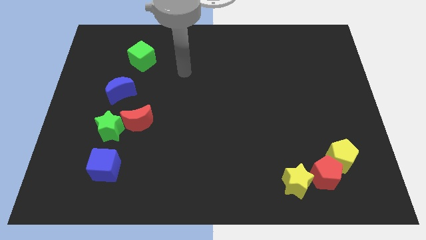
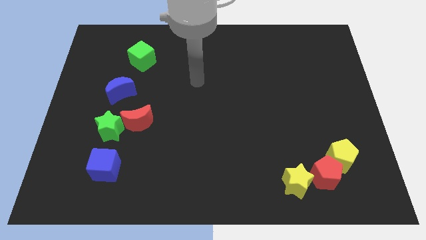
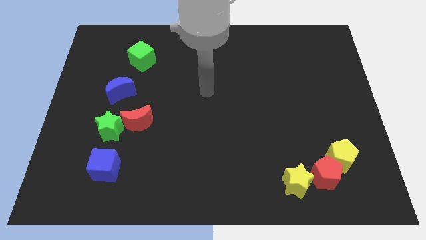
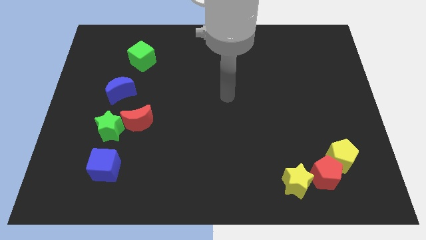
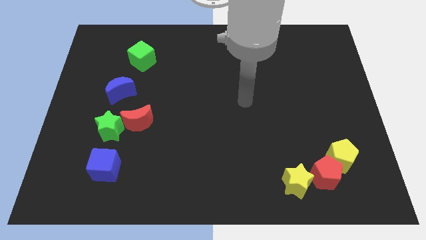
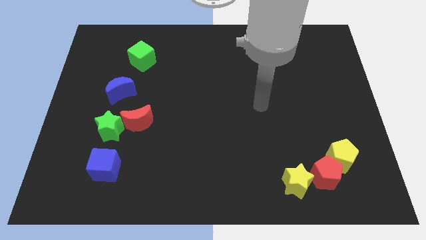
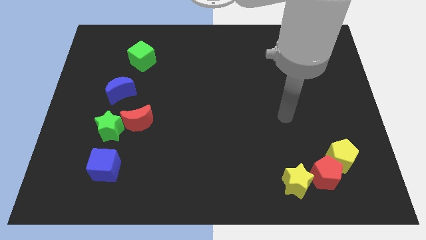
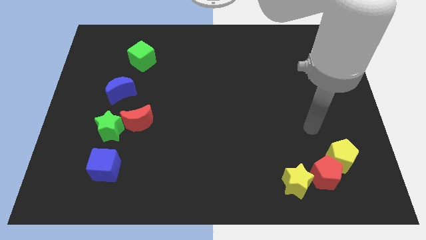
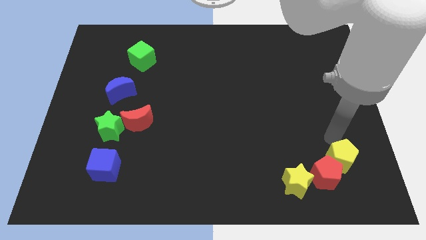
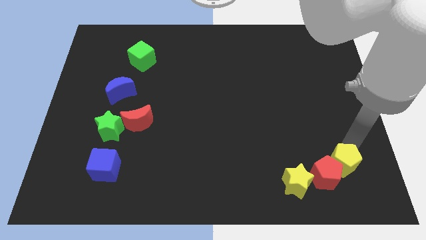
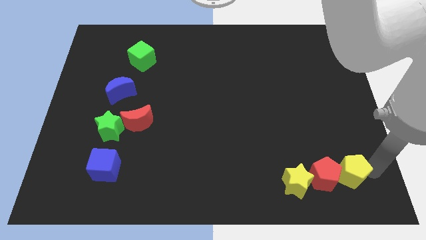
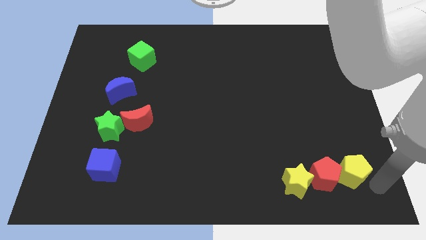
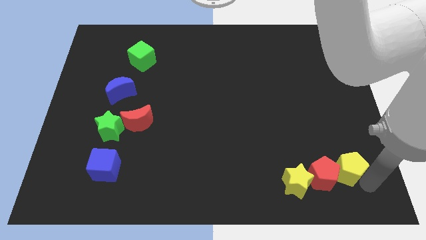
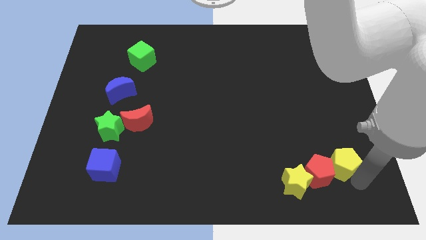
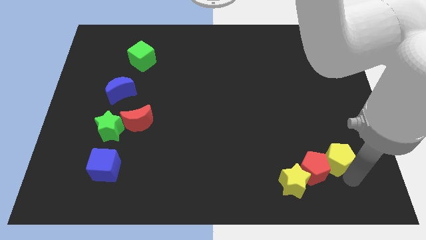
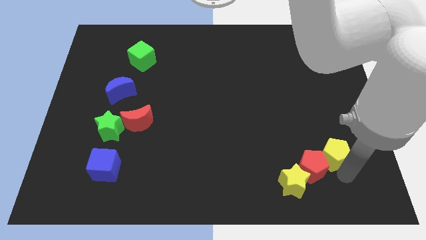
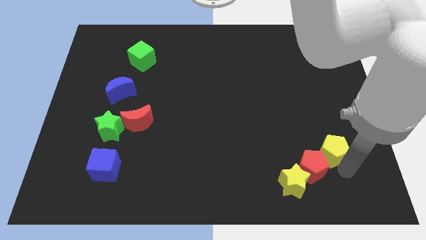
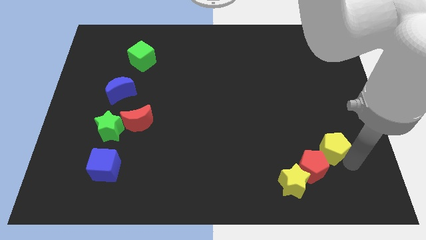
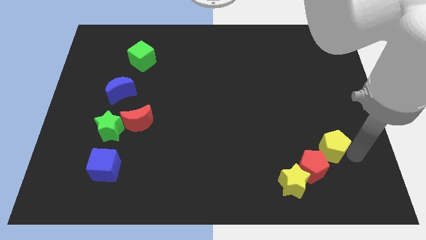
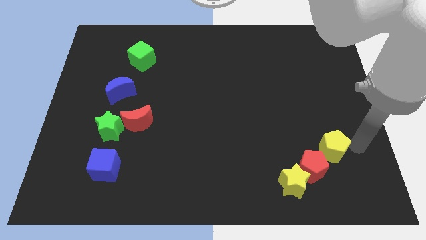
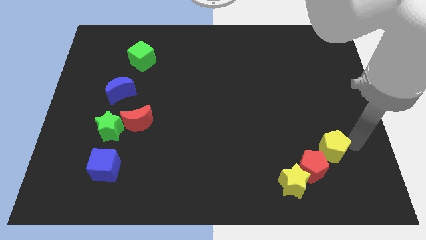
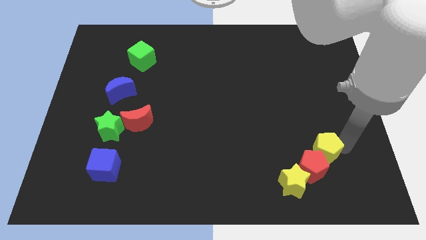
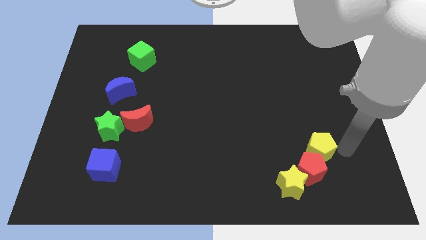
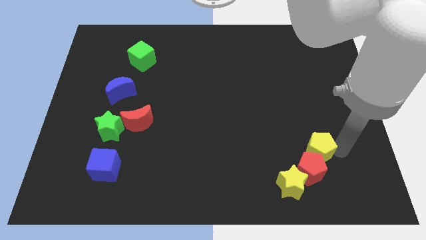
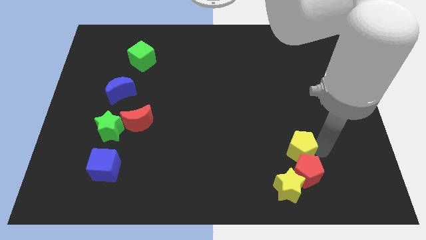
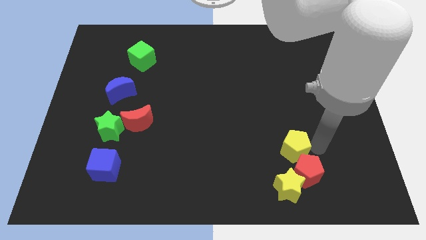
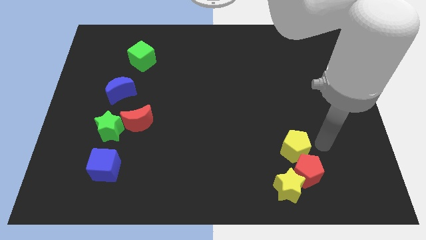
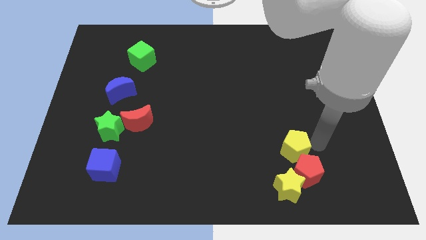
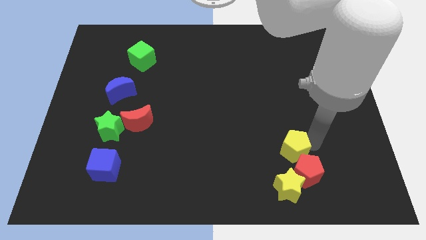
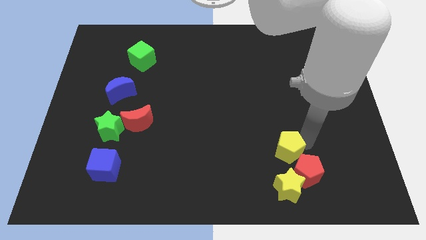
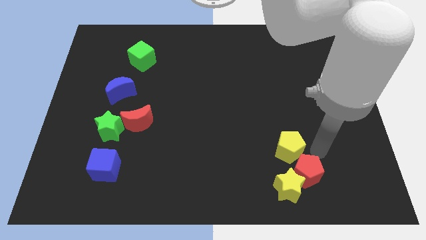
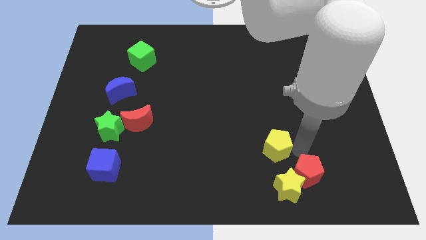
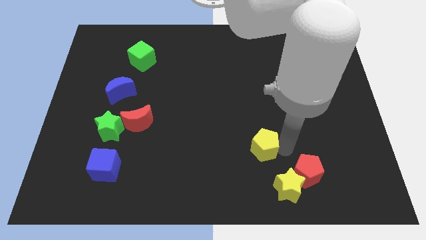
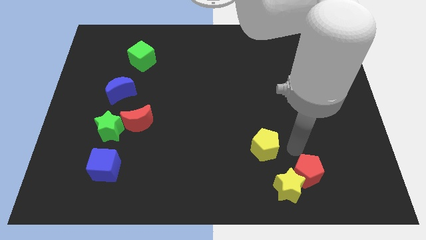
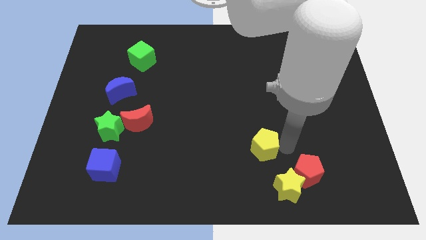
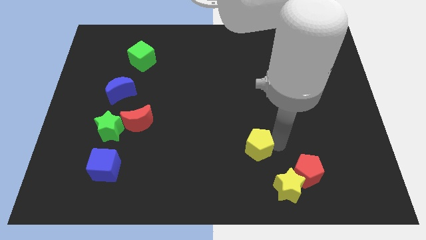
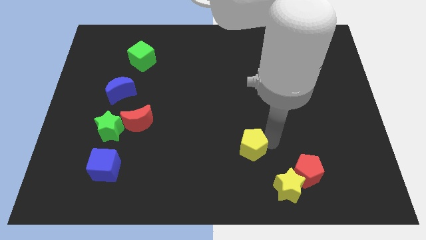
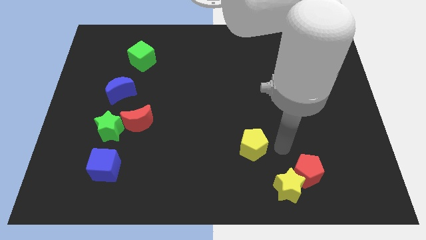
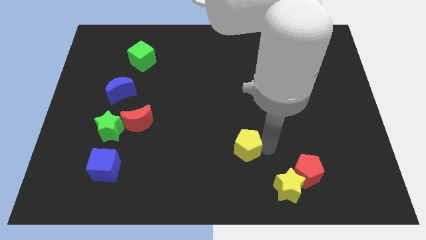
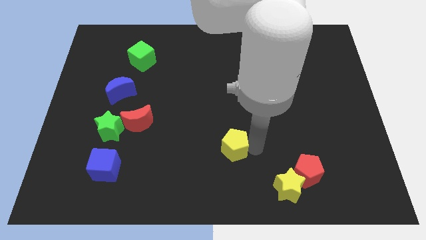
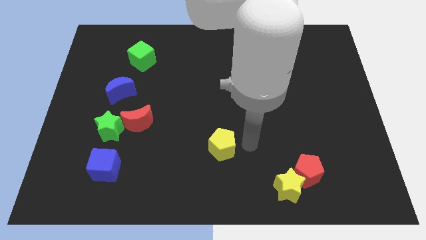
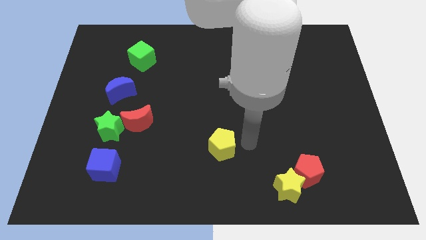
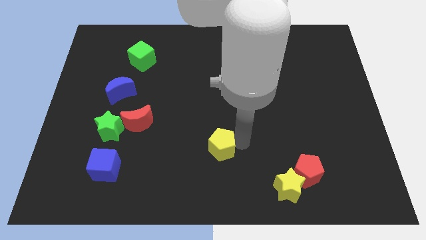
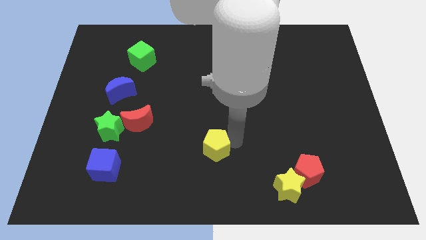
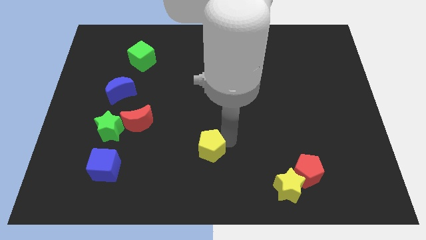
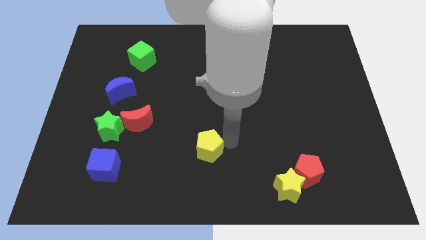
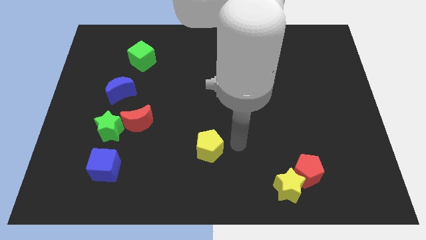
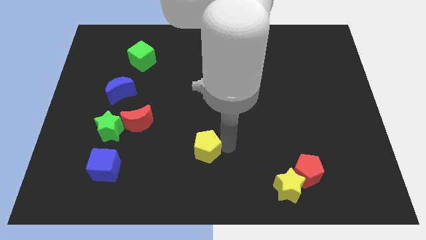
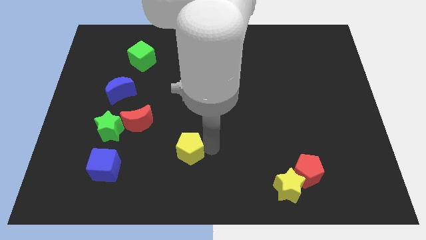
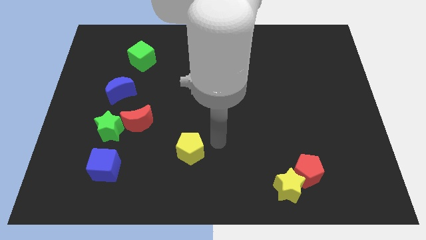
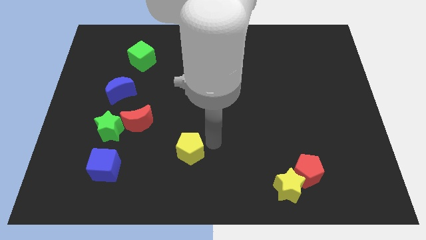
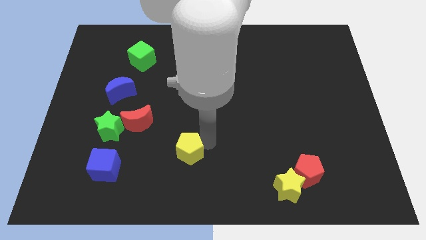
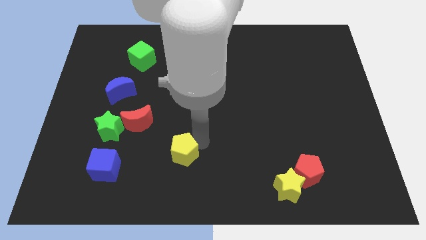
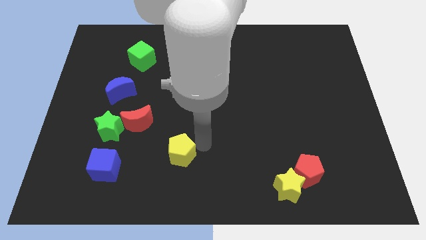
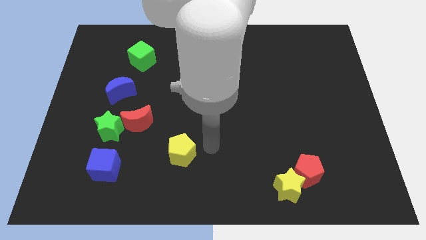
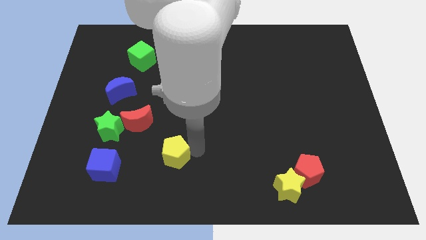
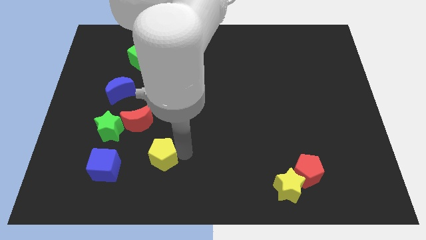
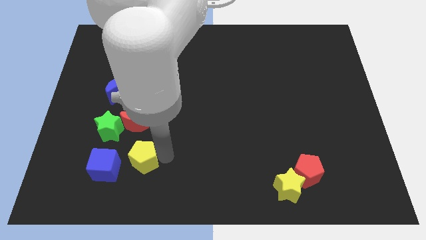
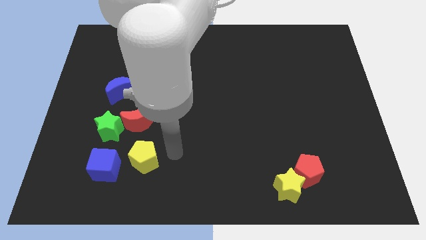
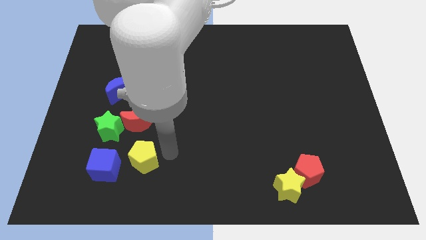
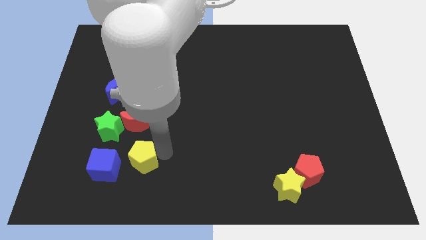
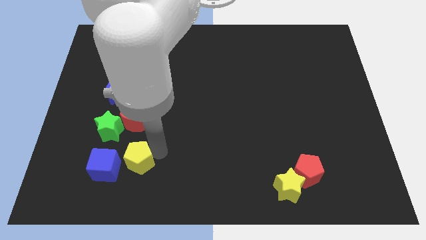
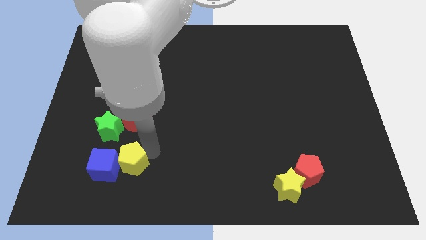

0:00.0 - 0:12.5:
push the yellow pentagon to the blue cube

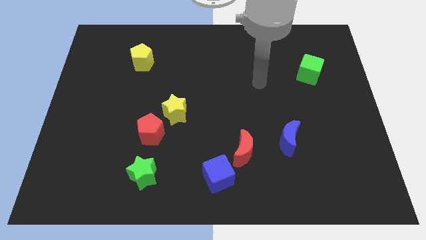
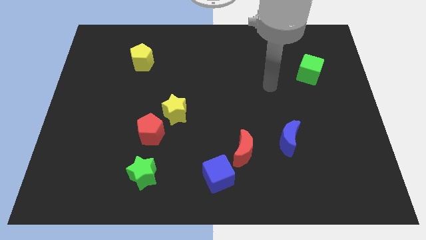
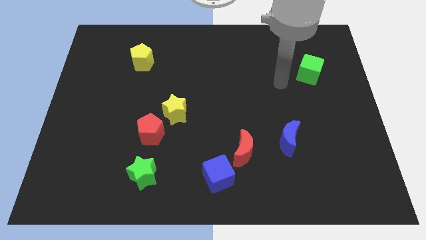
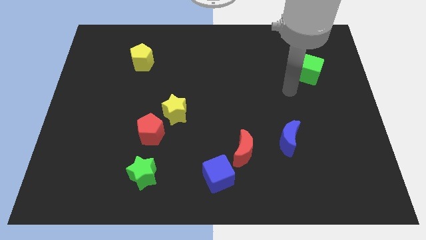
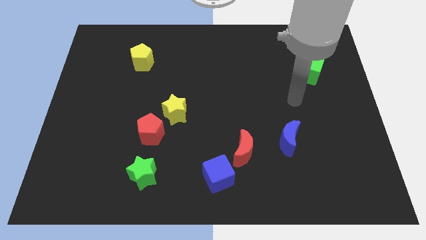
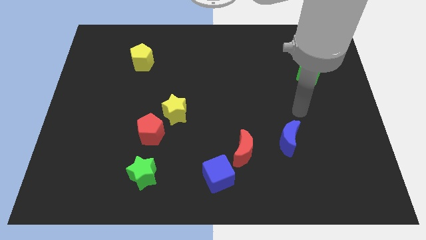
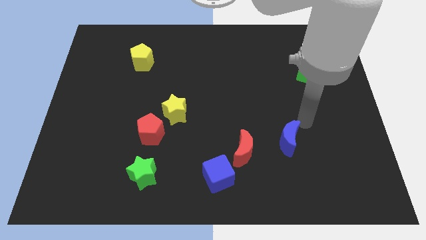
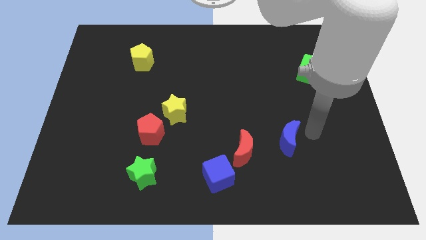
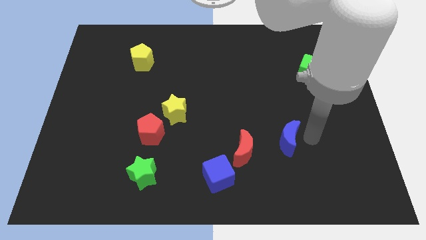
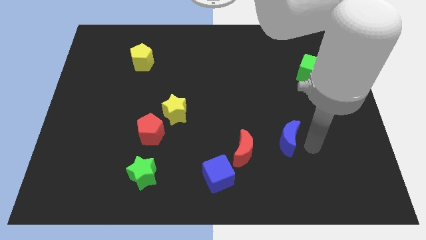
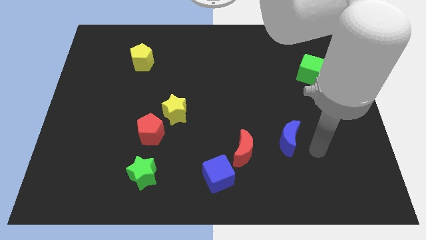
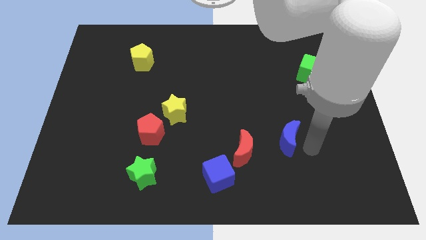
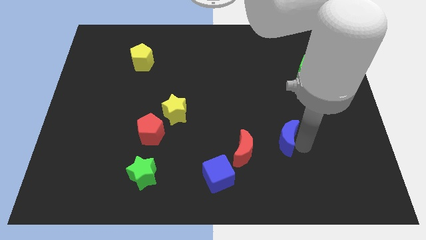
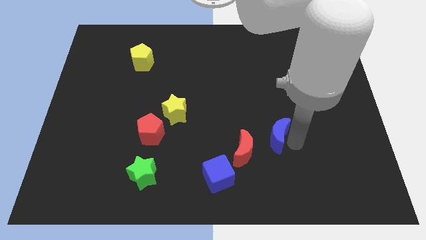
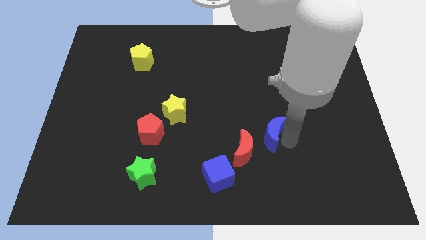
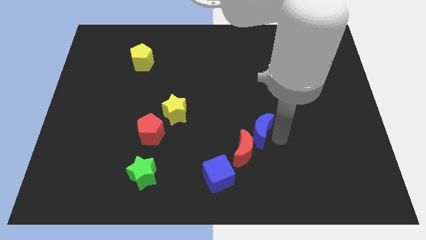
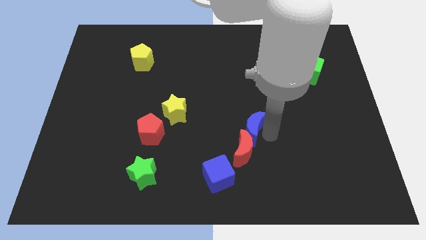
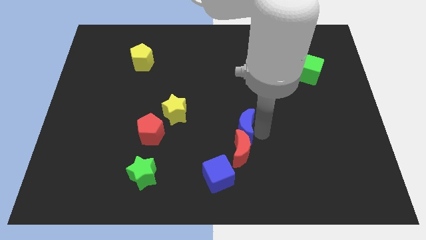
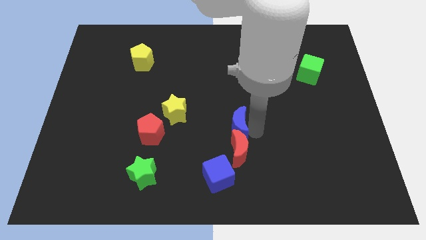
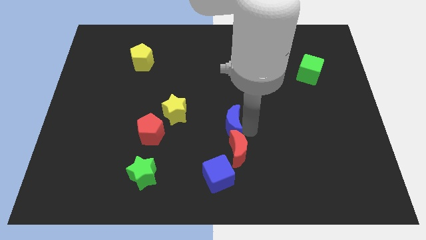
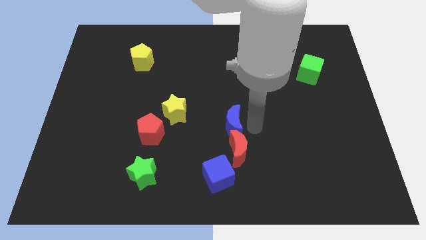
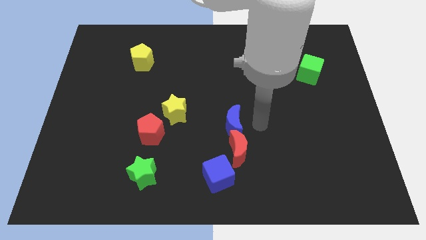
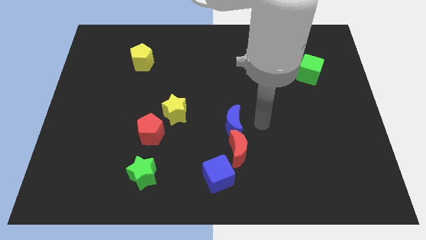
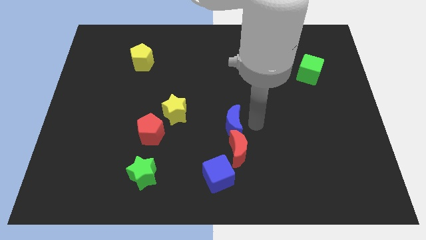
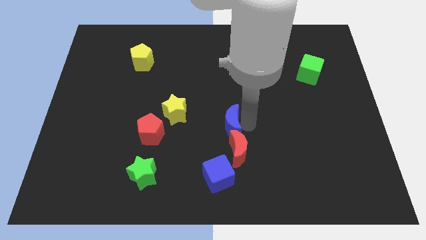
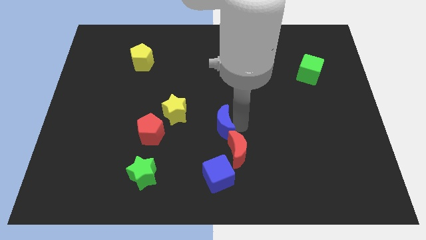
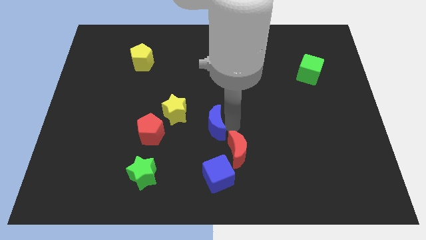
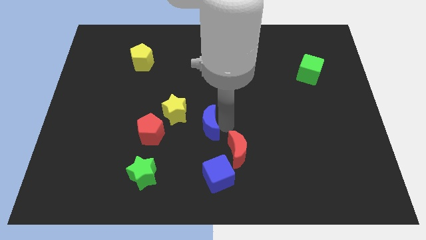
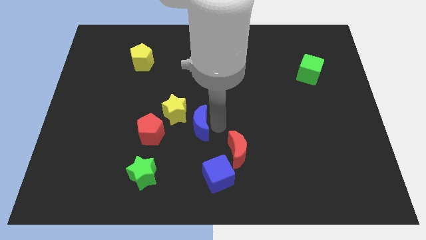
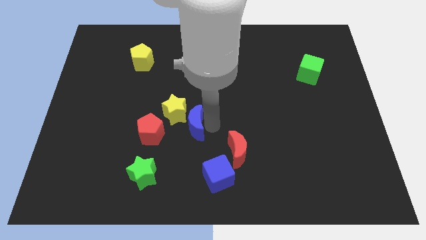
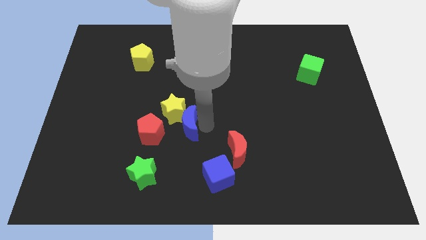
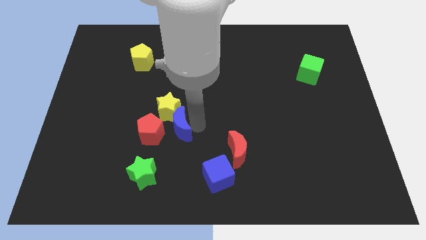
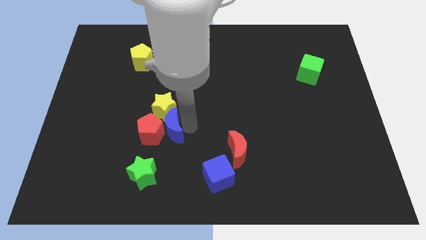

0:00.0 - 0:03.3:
move the blue moon close to the red pentagon
